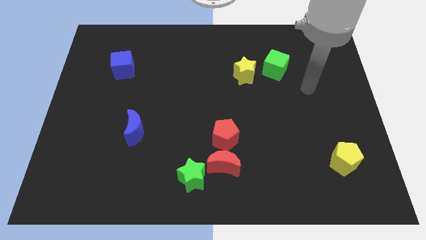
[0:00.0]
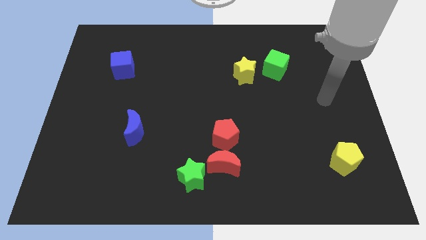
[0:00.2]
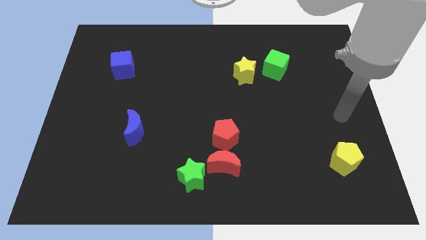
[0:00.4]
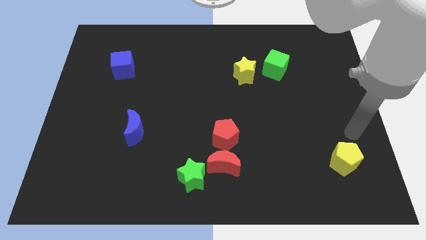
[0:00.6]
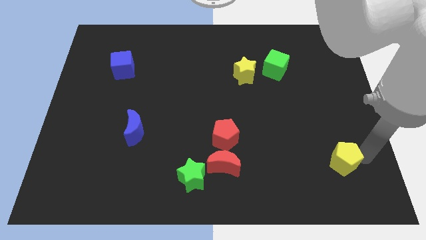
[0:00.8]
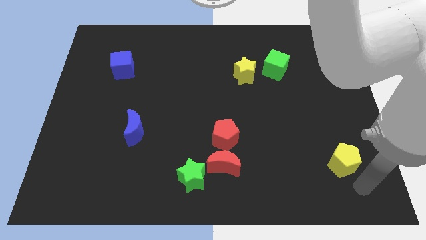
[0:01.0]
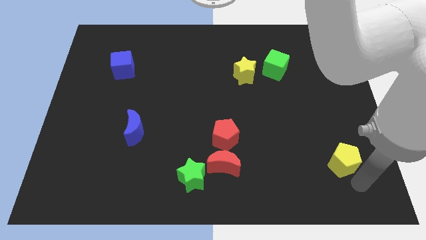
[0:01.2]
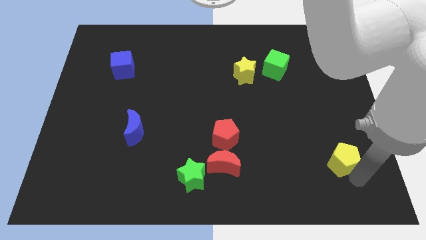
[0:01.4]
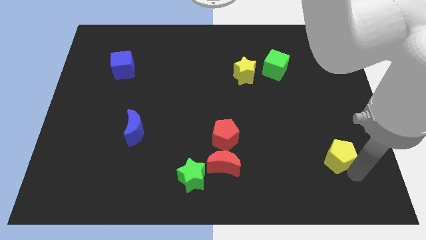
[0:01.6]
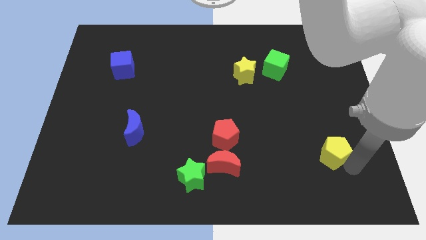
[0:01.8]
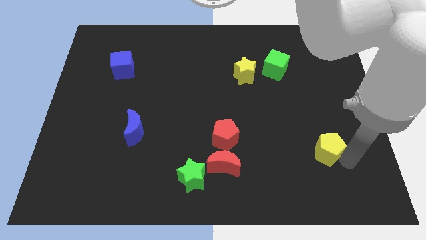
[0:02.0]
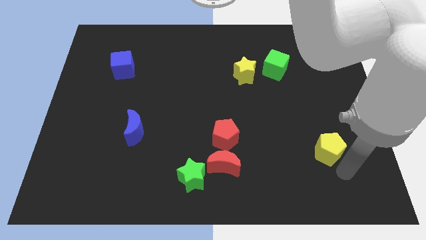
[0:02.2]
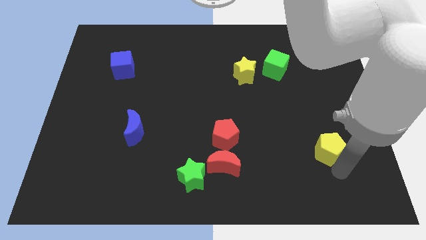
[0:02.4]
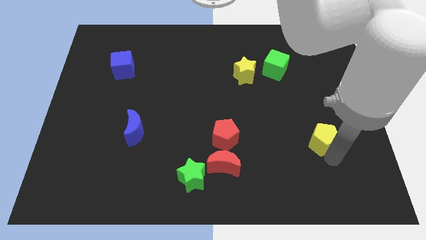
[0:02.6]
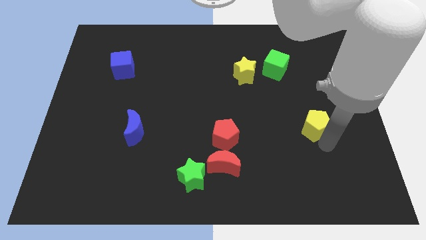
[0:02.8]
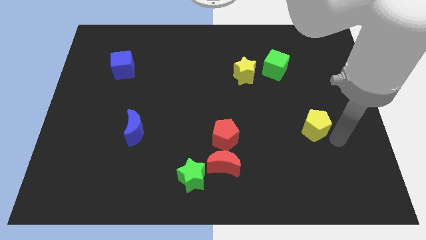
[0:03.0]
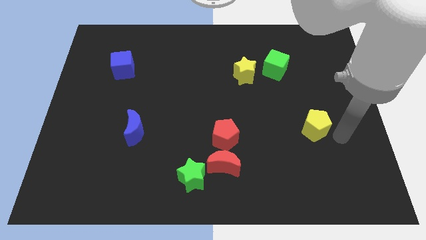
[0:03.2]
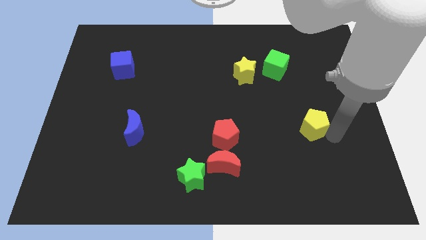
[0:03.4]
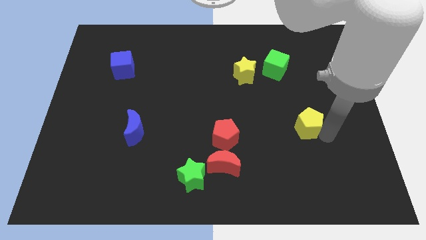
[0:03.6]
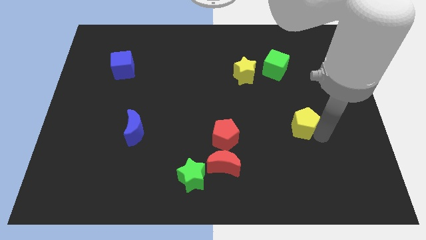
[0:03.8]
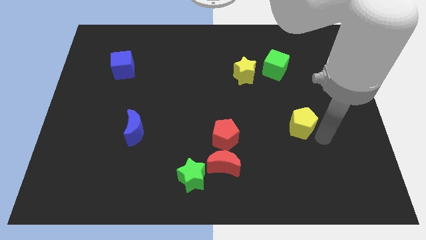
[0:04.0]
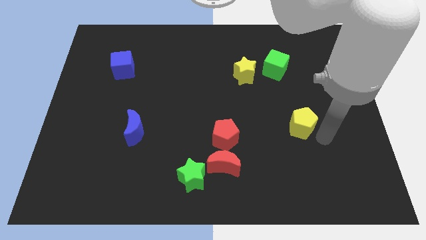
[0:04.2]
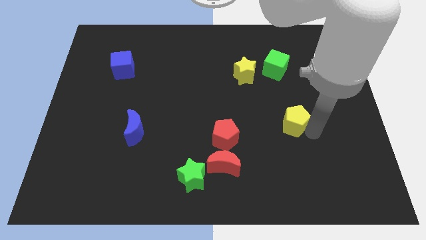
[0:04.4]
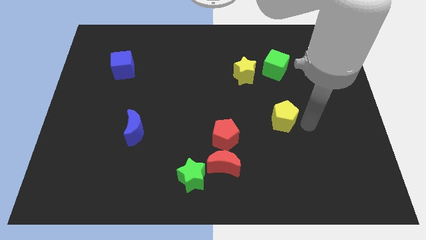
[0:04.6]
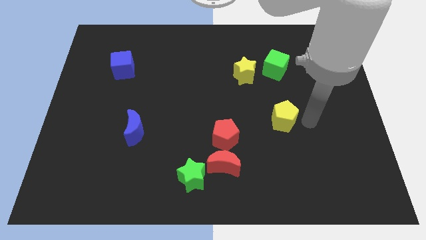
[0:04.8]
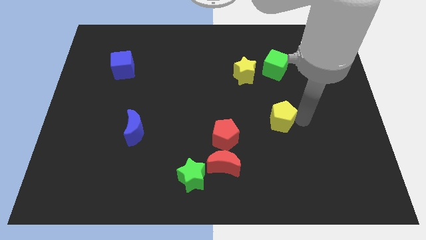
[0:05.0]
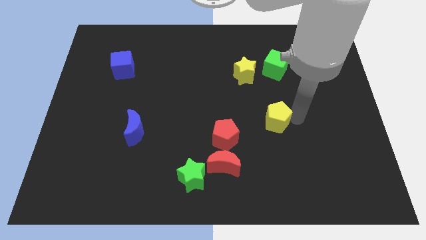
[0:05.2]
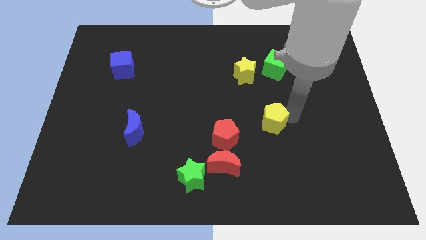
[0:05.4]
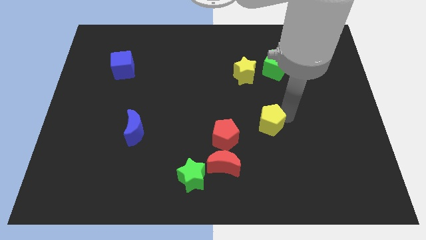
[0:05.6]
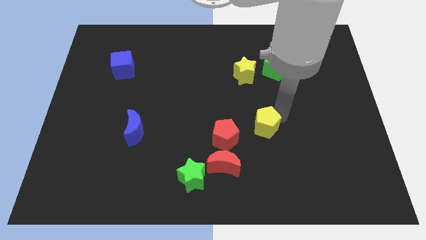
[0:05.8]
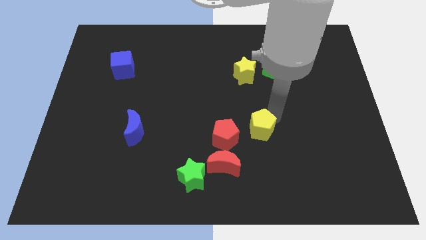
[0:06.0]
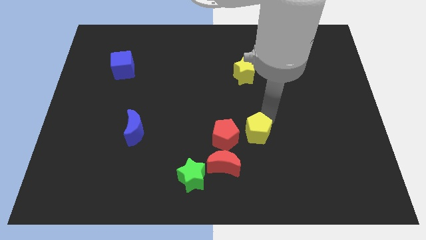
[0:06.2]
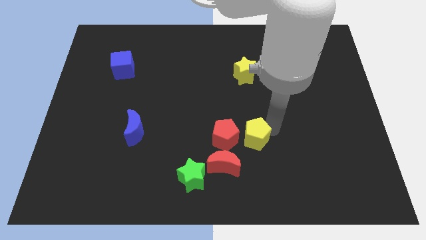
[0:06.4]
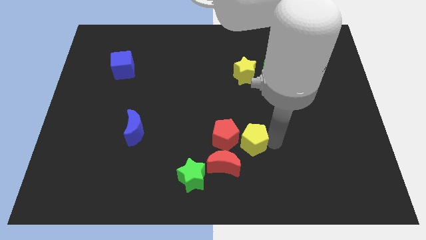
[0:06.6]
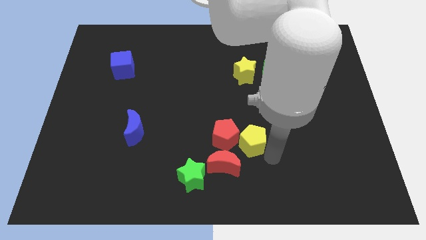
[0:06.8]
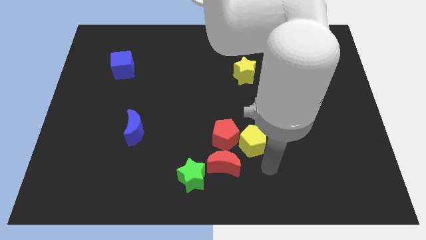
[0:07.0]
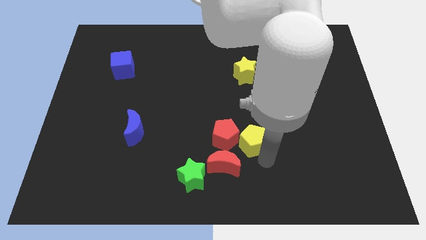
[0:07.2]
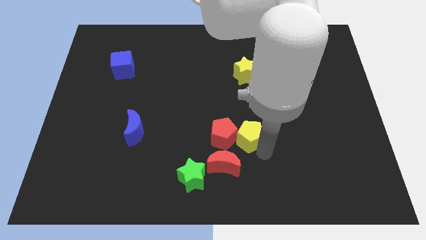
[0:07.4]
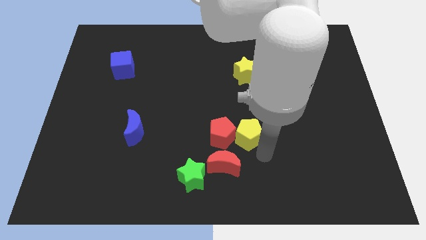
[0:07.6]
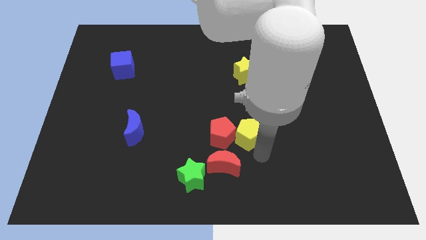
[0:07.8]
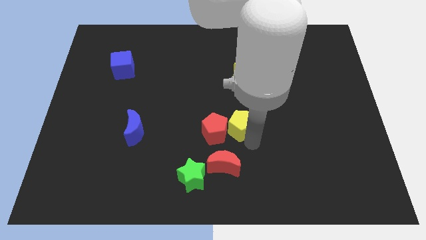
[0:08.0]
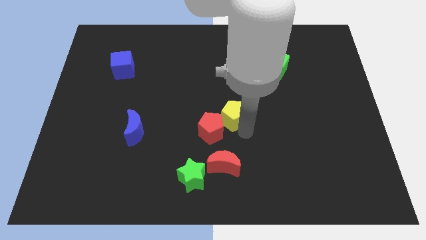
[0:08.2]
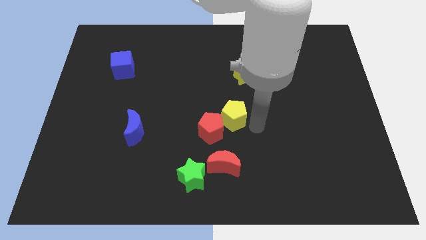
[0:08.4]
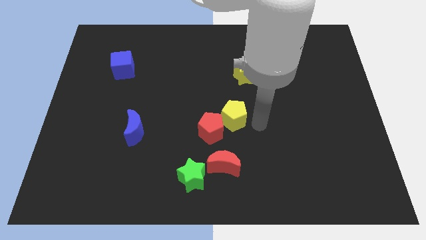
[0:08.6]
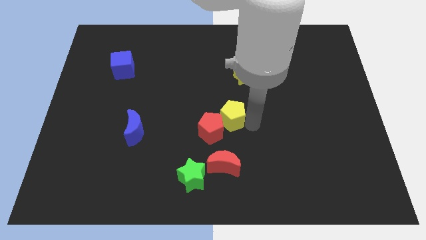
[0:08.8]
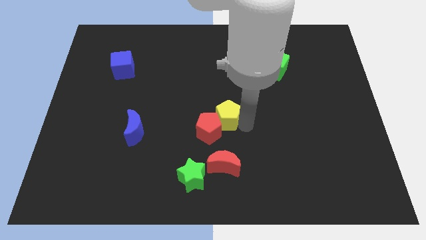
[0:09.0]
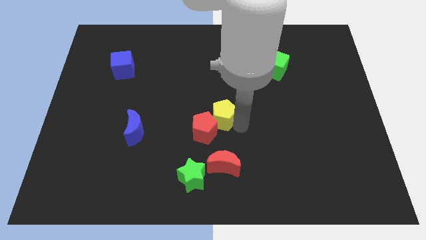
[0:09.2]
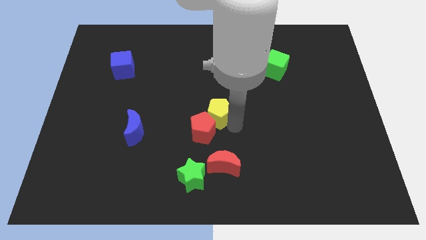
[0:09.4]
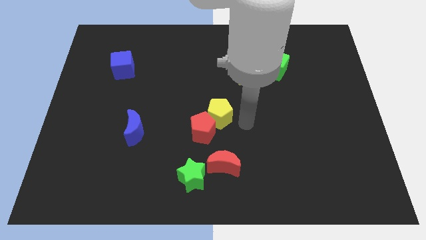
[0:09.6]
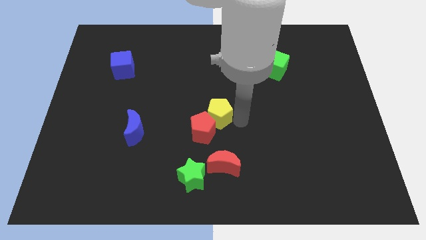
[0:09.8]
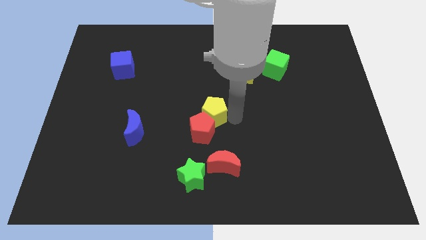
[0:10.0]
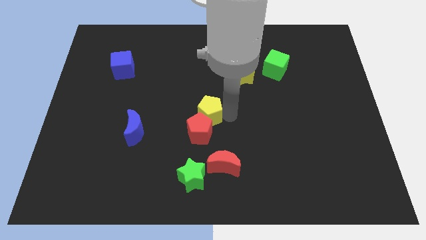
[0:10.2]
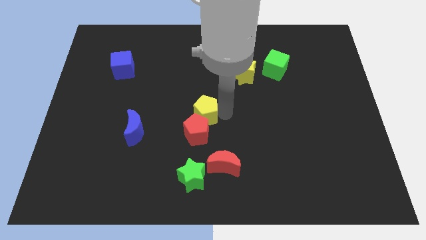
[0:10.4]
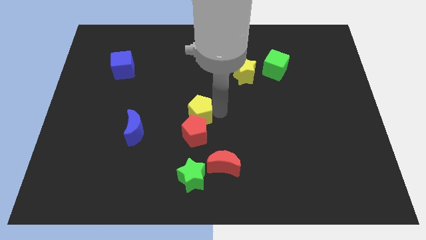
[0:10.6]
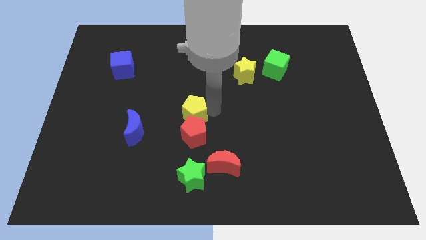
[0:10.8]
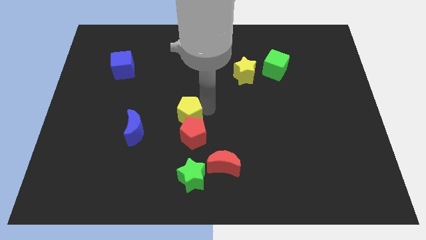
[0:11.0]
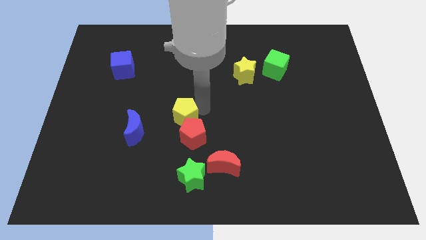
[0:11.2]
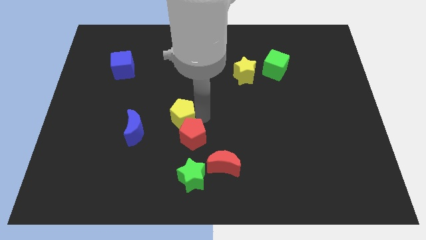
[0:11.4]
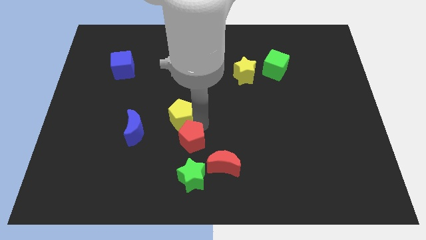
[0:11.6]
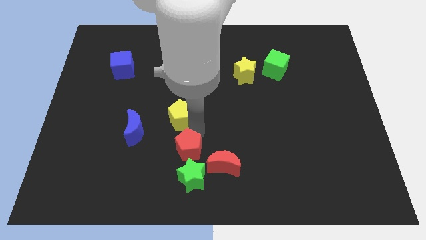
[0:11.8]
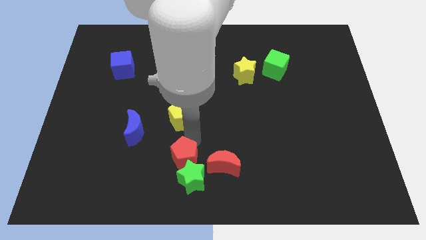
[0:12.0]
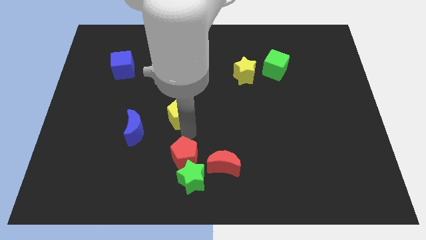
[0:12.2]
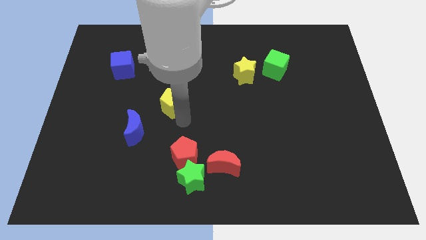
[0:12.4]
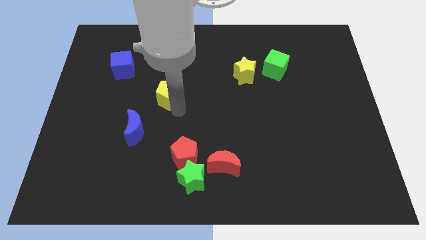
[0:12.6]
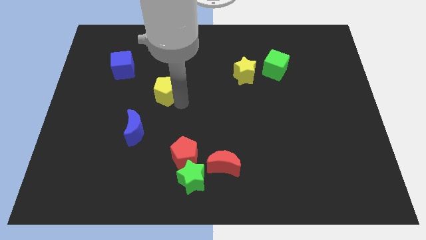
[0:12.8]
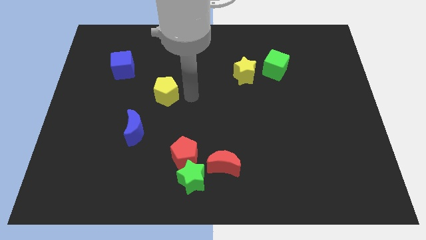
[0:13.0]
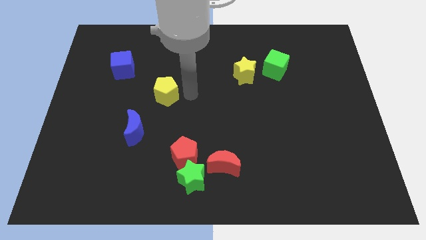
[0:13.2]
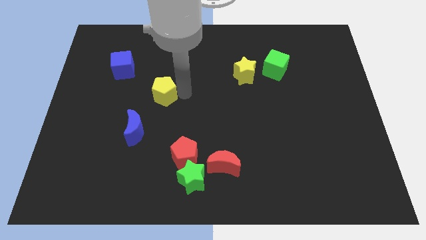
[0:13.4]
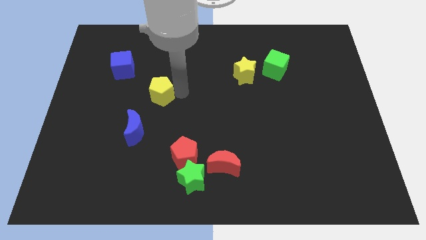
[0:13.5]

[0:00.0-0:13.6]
slide the yellow pentagon to the top of the blue moon

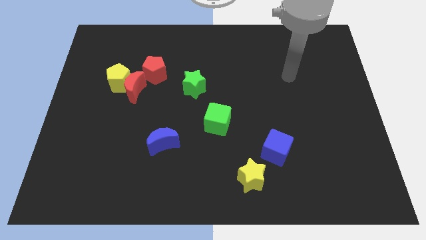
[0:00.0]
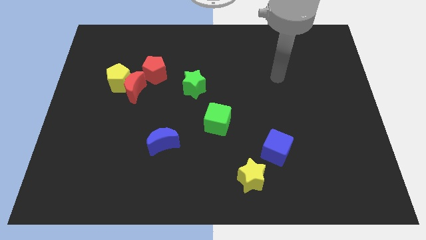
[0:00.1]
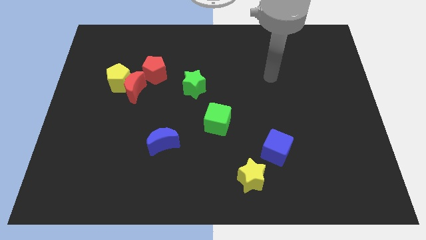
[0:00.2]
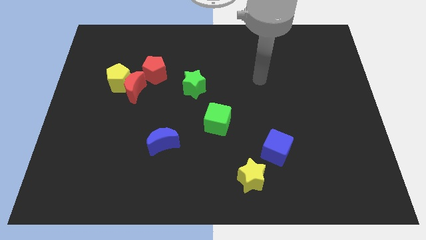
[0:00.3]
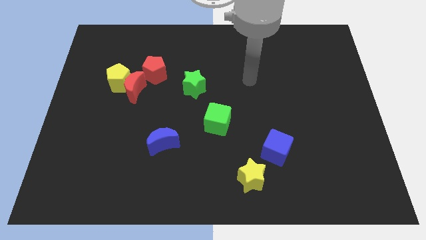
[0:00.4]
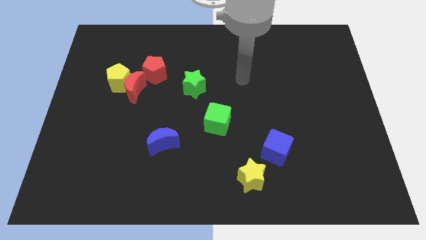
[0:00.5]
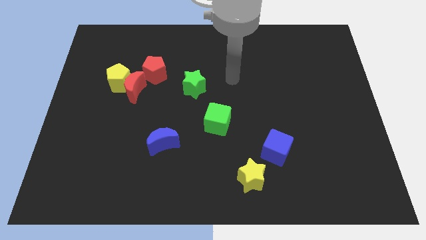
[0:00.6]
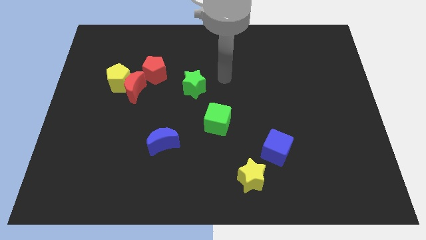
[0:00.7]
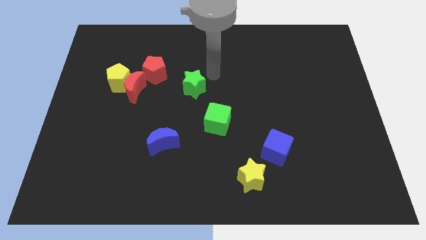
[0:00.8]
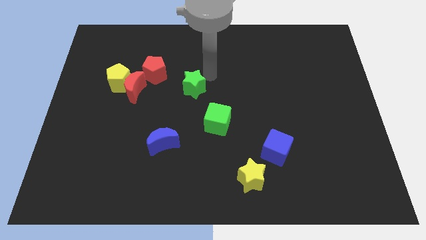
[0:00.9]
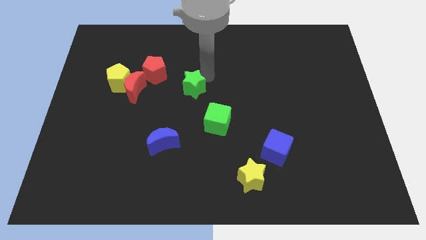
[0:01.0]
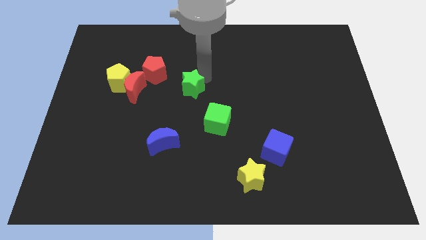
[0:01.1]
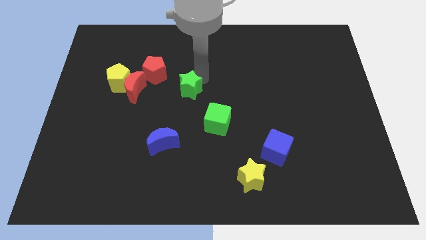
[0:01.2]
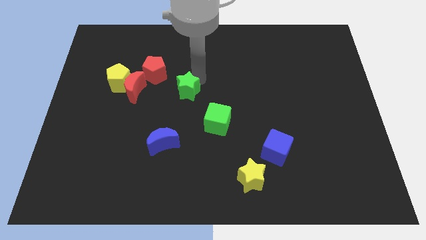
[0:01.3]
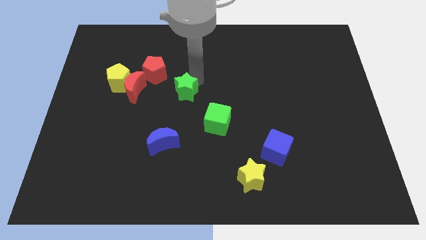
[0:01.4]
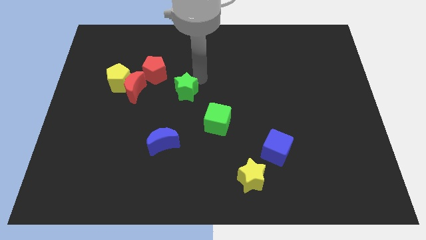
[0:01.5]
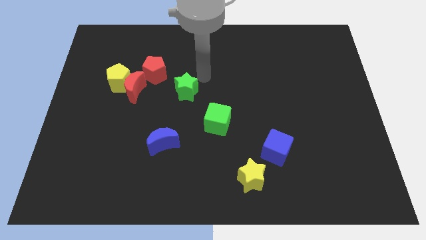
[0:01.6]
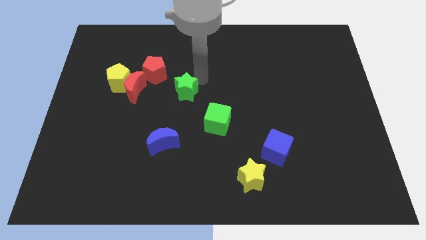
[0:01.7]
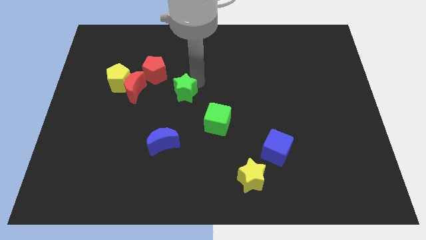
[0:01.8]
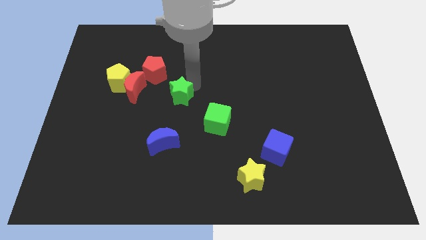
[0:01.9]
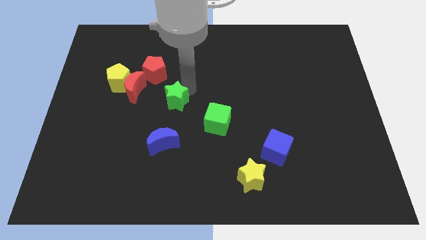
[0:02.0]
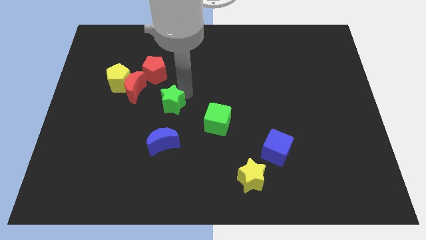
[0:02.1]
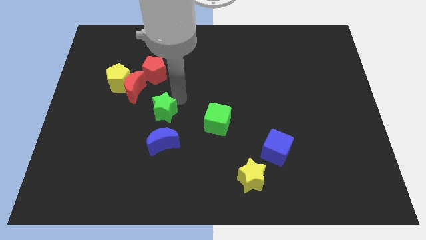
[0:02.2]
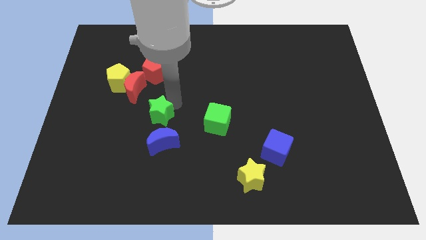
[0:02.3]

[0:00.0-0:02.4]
move the green star to the top left side of the blue moon
